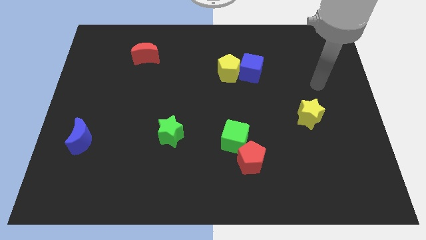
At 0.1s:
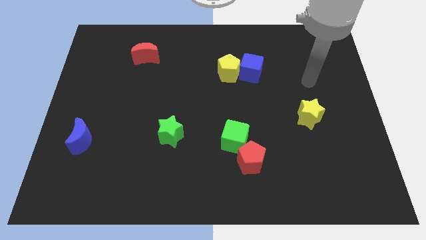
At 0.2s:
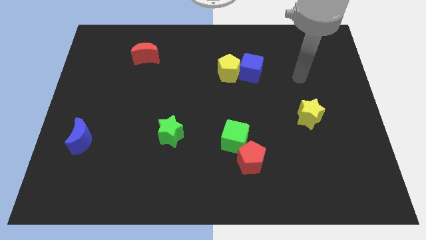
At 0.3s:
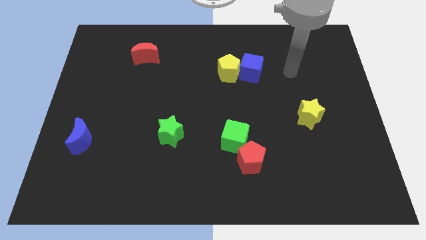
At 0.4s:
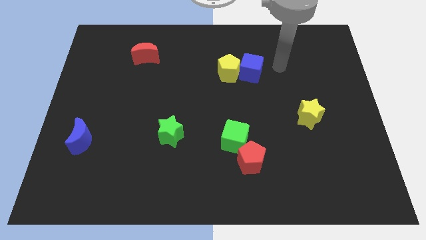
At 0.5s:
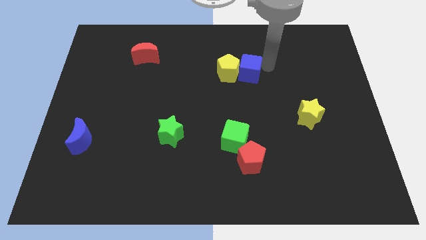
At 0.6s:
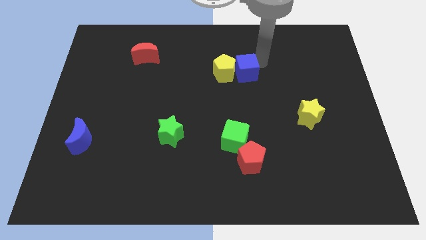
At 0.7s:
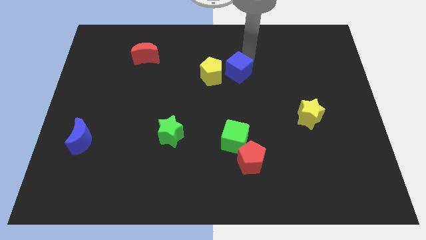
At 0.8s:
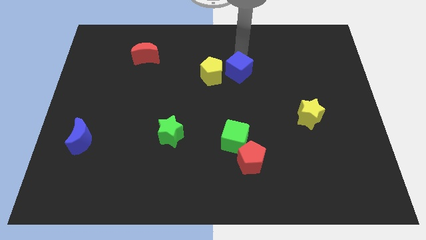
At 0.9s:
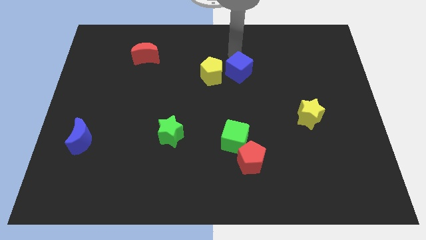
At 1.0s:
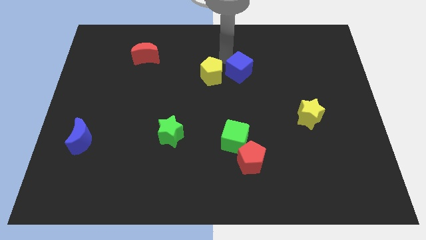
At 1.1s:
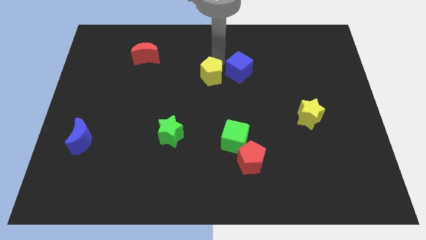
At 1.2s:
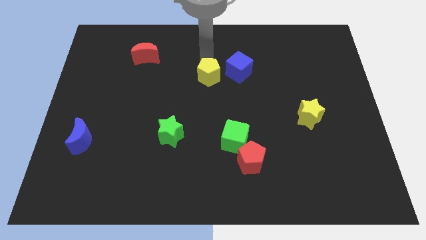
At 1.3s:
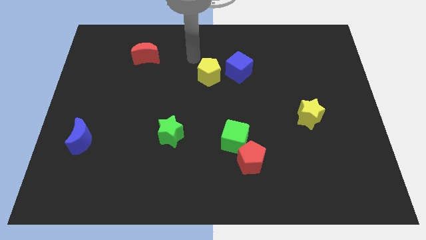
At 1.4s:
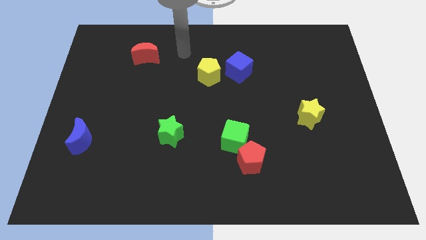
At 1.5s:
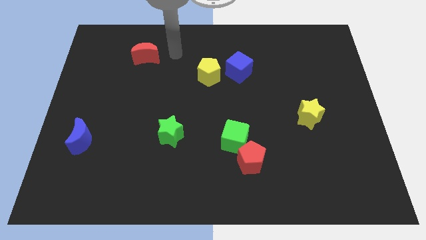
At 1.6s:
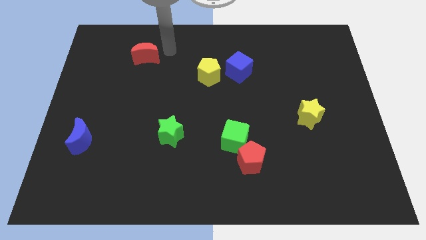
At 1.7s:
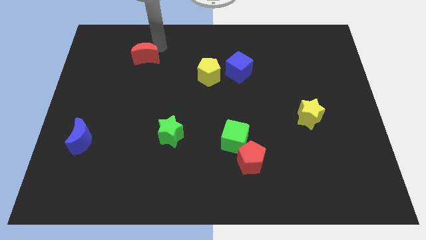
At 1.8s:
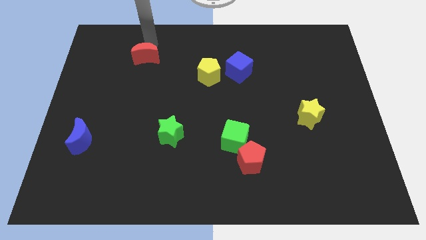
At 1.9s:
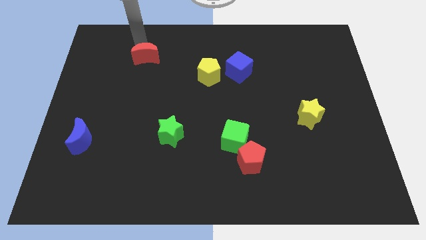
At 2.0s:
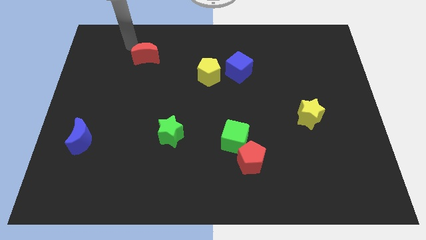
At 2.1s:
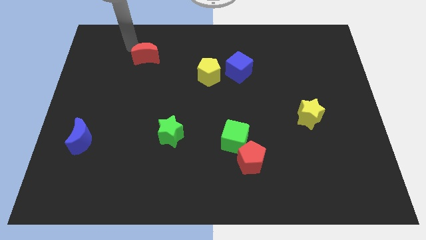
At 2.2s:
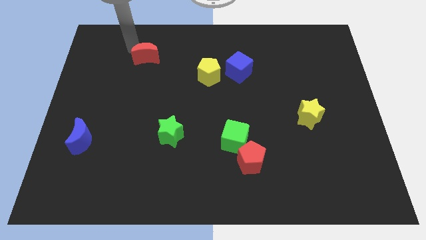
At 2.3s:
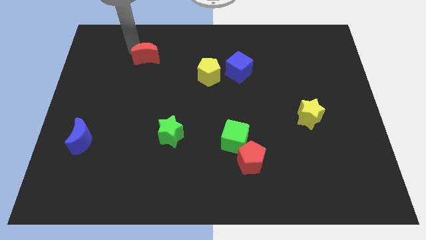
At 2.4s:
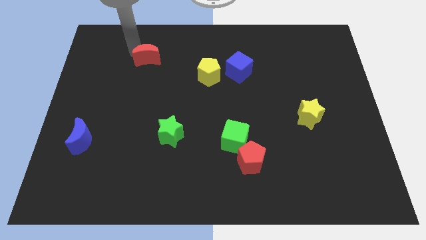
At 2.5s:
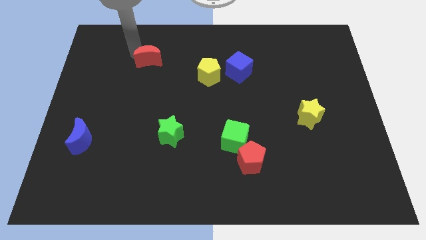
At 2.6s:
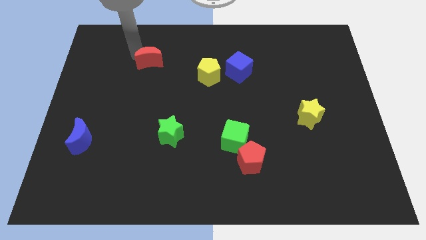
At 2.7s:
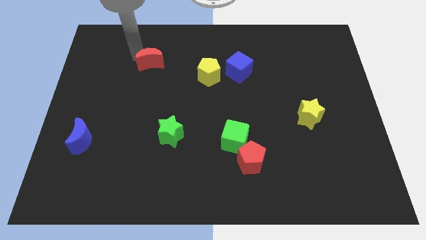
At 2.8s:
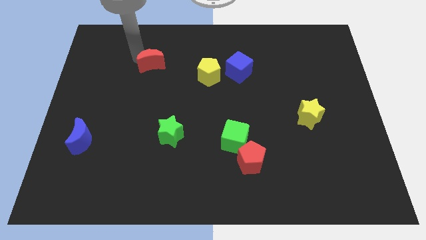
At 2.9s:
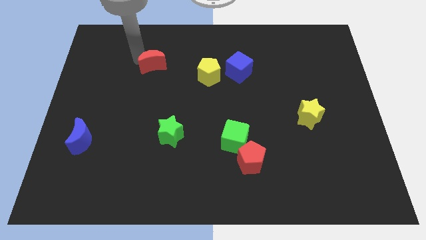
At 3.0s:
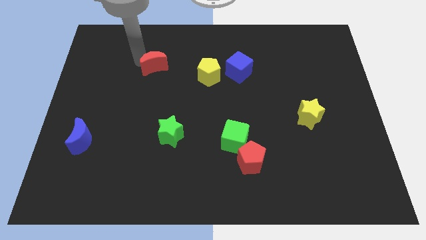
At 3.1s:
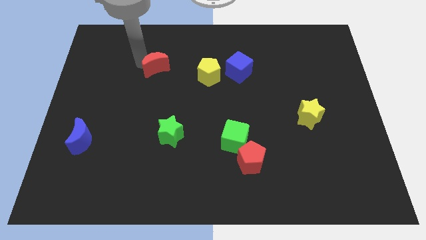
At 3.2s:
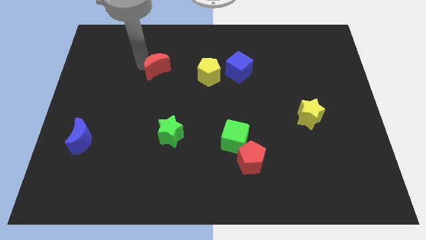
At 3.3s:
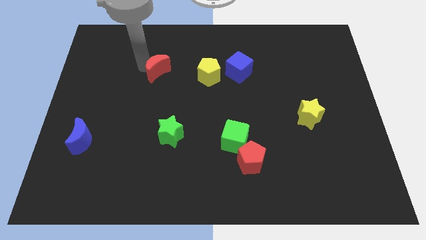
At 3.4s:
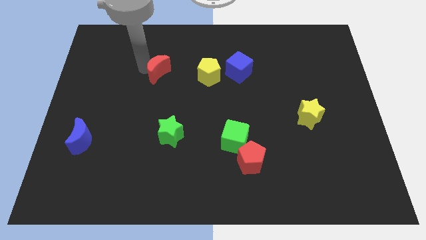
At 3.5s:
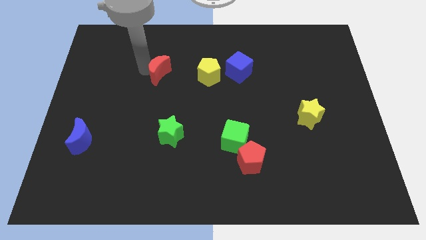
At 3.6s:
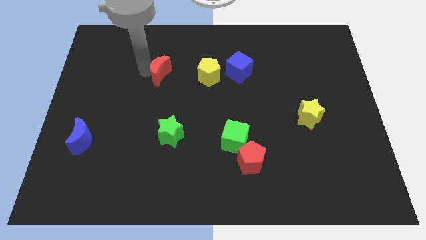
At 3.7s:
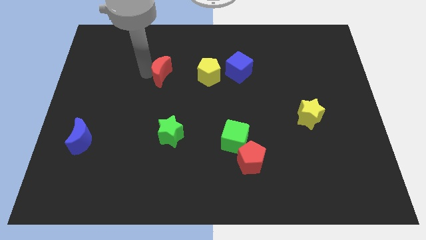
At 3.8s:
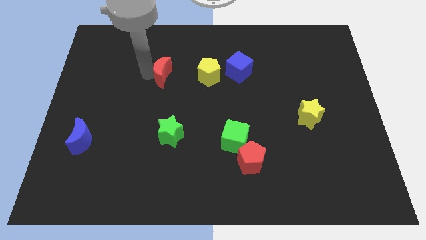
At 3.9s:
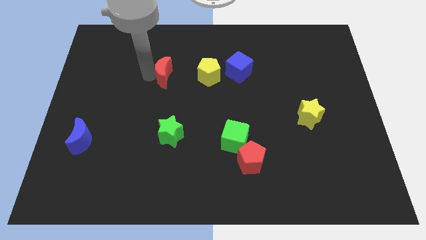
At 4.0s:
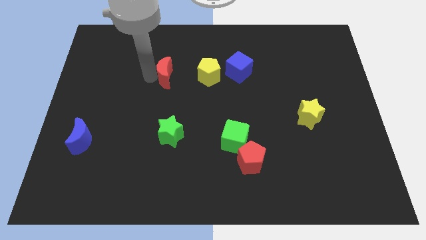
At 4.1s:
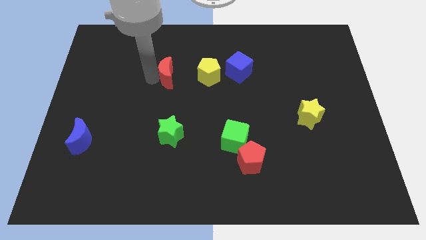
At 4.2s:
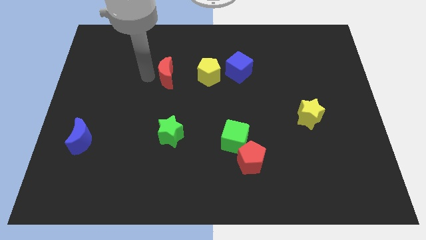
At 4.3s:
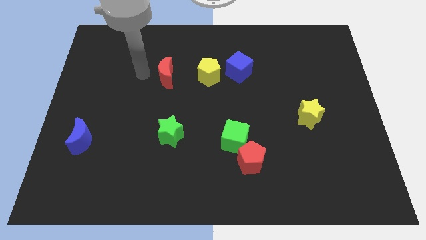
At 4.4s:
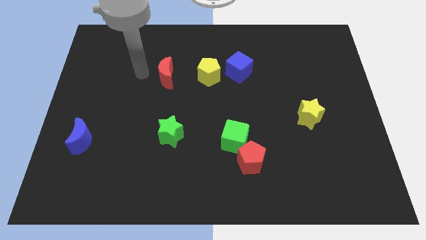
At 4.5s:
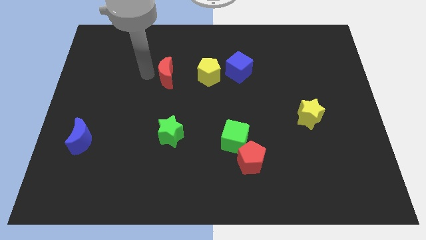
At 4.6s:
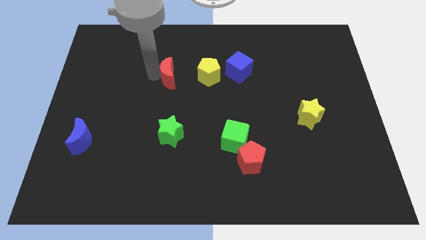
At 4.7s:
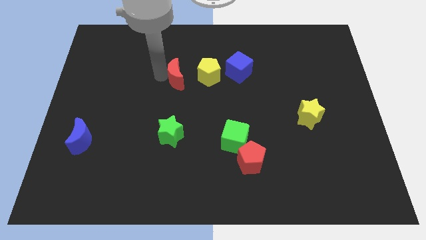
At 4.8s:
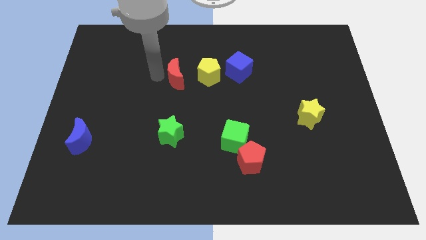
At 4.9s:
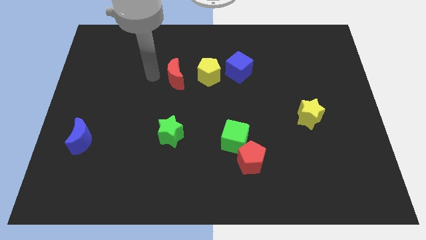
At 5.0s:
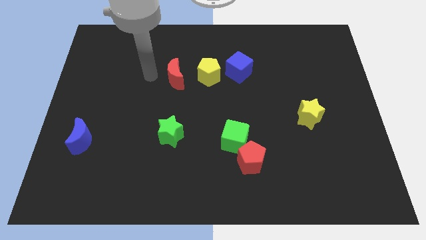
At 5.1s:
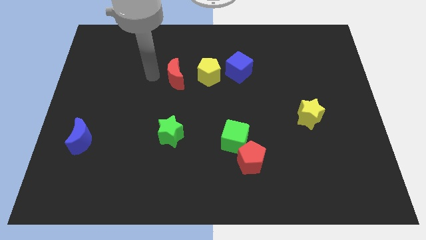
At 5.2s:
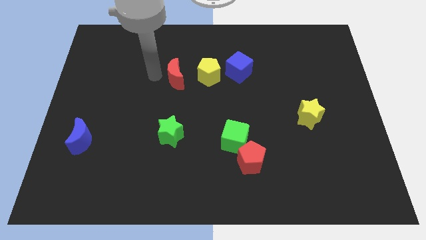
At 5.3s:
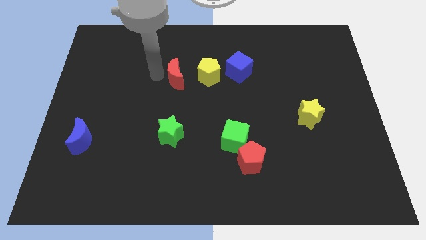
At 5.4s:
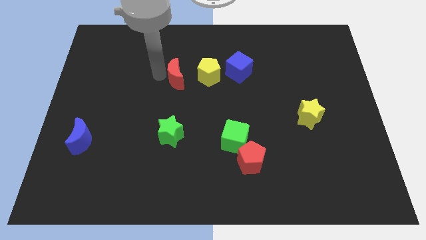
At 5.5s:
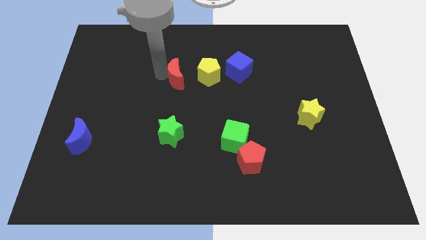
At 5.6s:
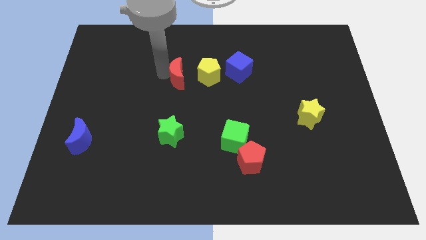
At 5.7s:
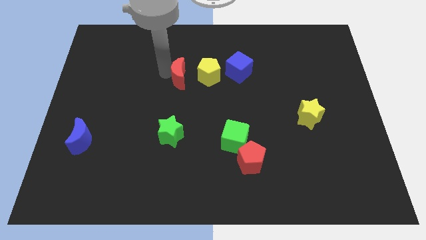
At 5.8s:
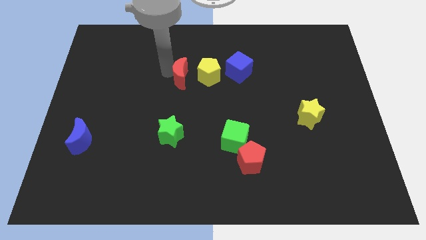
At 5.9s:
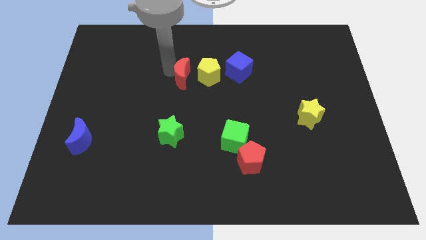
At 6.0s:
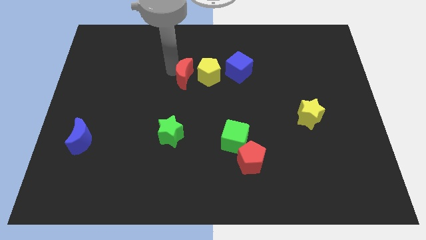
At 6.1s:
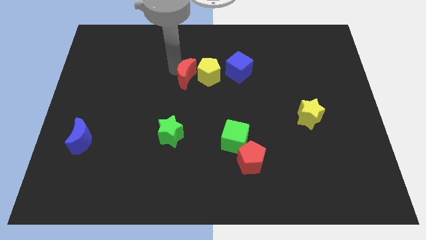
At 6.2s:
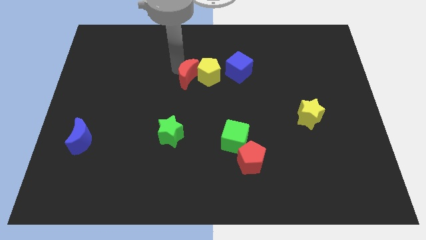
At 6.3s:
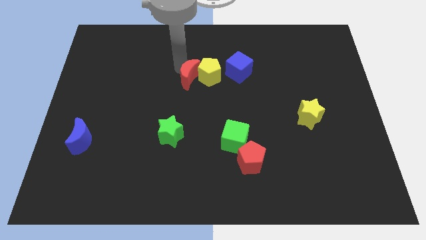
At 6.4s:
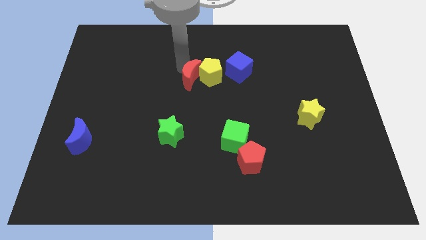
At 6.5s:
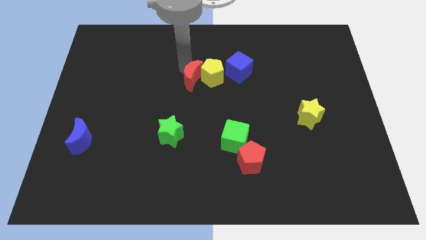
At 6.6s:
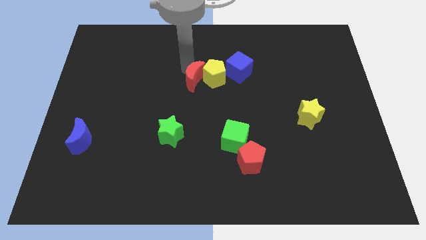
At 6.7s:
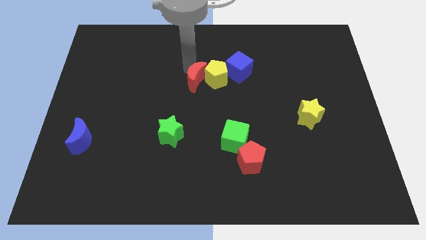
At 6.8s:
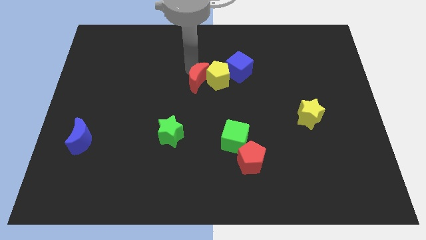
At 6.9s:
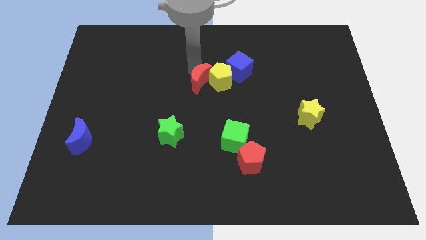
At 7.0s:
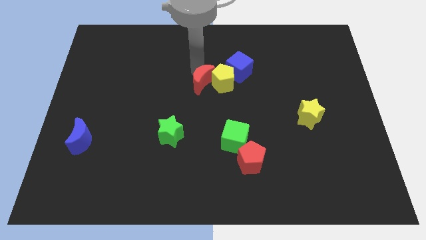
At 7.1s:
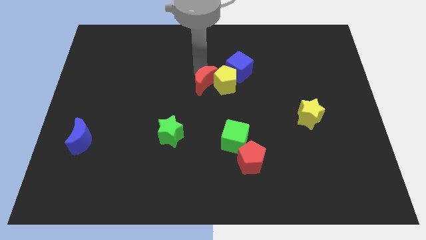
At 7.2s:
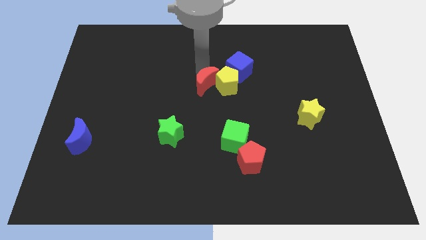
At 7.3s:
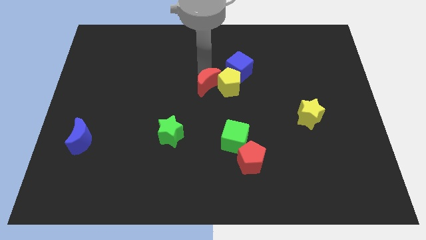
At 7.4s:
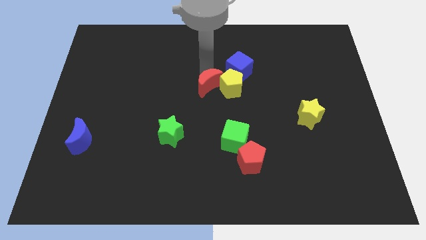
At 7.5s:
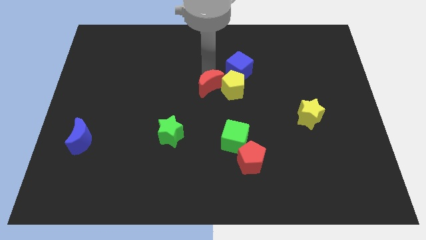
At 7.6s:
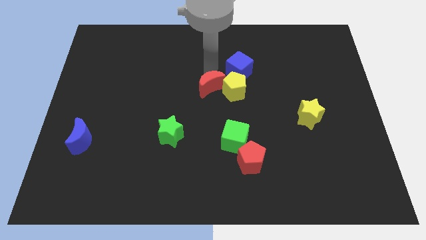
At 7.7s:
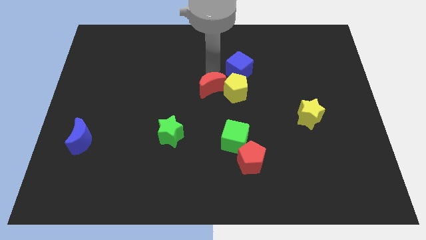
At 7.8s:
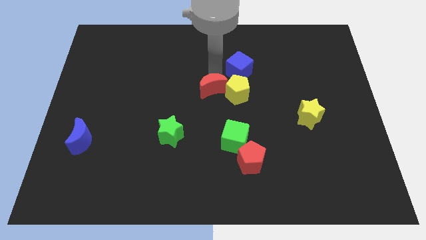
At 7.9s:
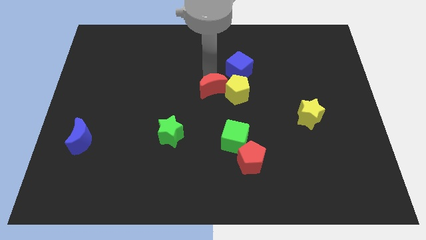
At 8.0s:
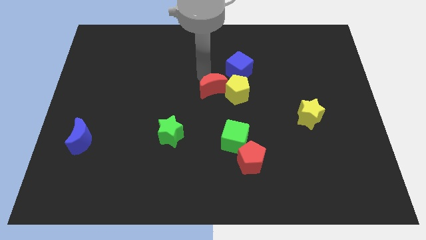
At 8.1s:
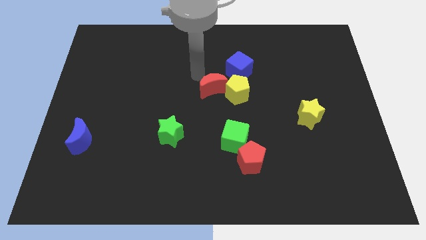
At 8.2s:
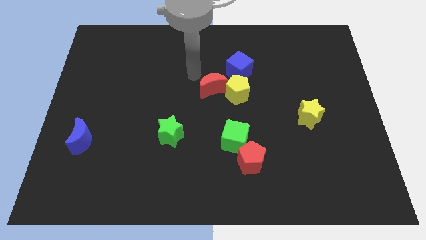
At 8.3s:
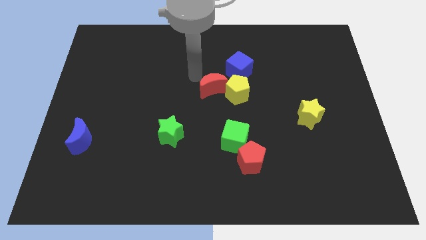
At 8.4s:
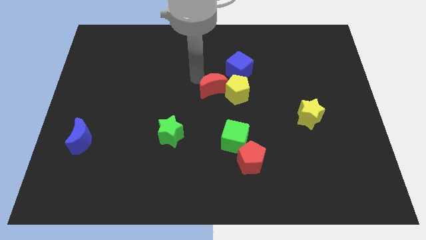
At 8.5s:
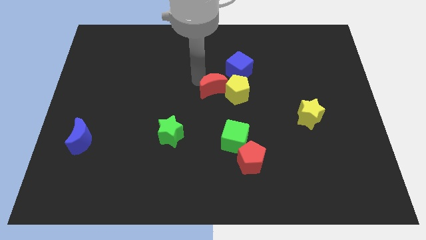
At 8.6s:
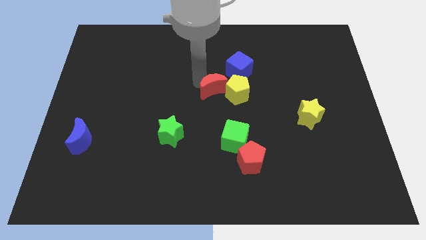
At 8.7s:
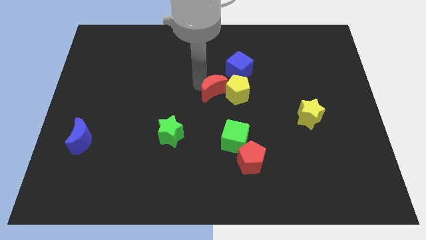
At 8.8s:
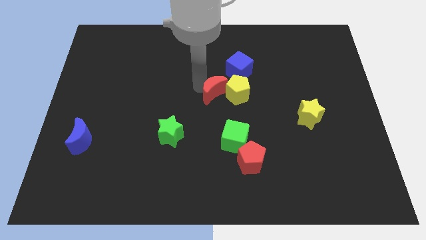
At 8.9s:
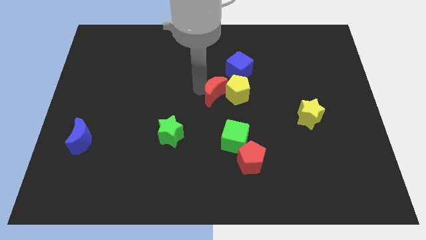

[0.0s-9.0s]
push the red moon to the top of the green cube
